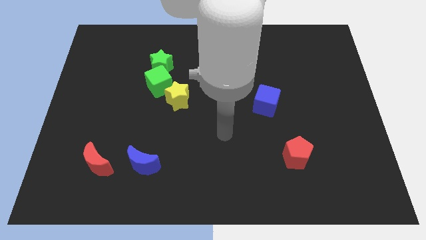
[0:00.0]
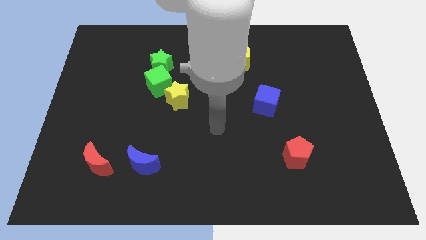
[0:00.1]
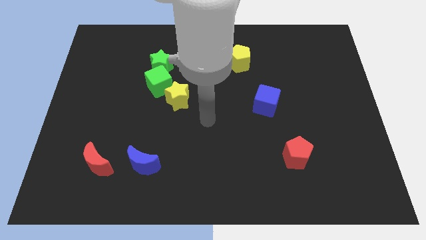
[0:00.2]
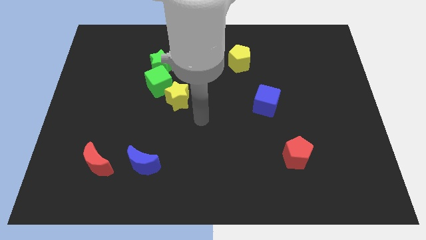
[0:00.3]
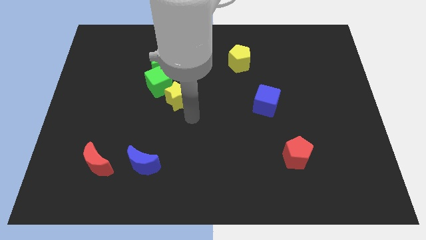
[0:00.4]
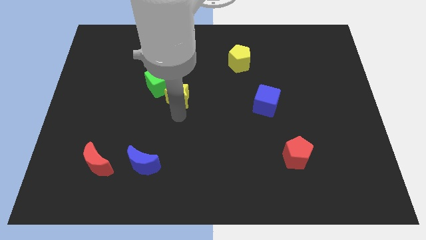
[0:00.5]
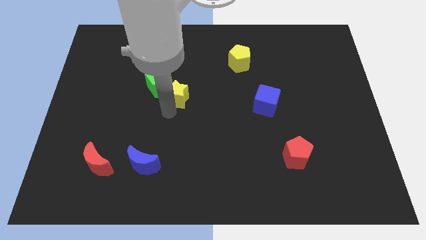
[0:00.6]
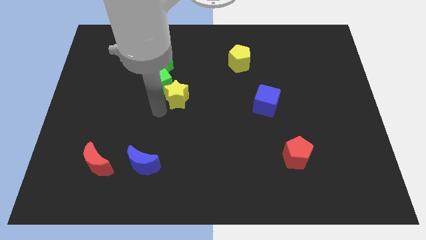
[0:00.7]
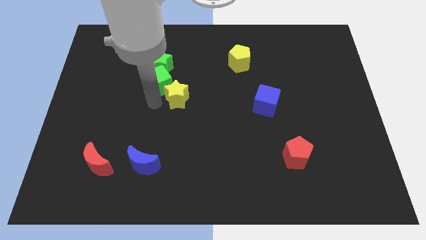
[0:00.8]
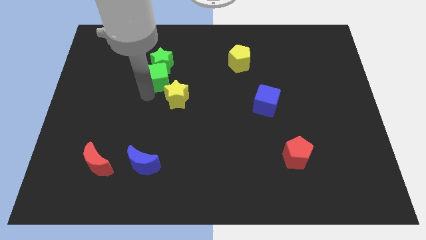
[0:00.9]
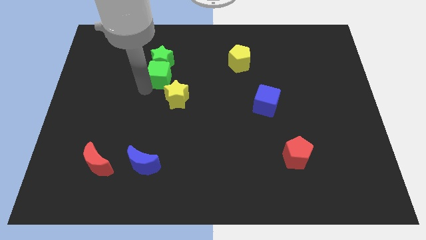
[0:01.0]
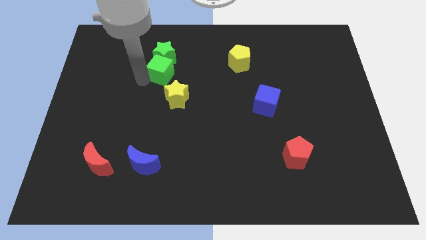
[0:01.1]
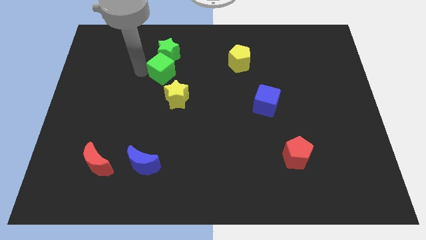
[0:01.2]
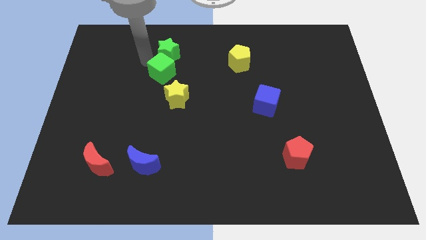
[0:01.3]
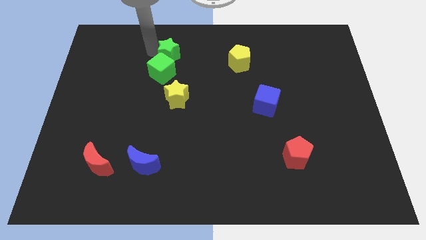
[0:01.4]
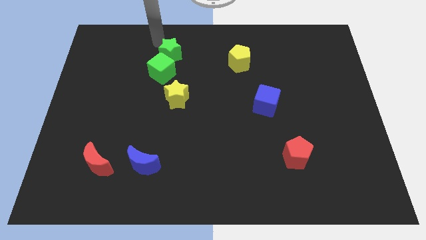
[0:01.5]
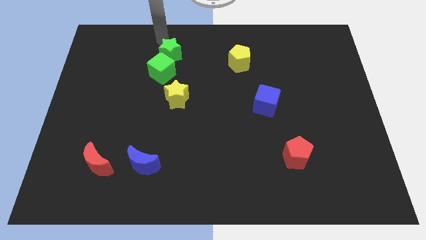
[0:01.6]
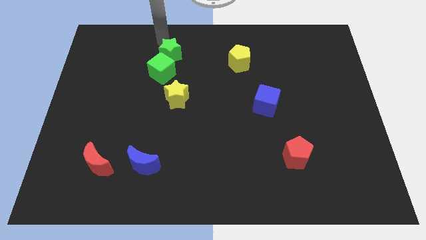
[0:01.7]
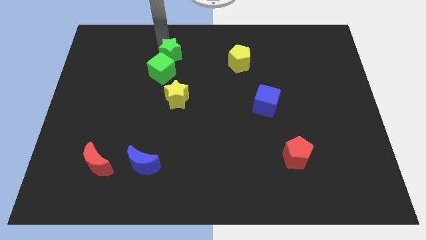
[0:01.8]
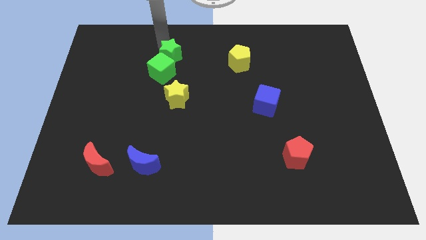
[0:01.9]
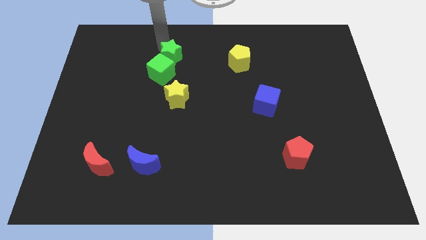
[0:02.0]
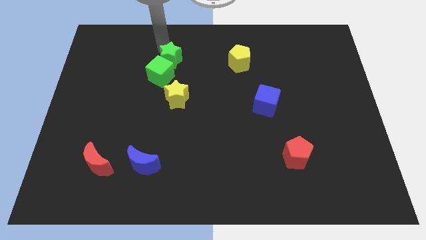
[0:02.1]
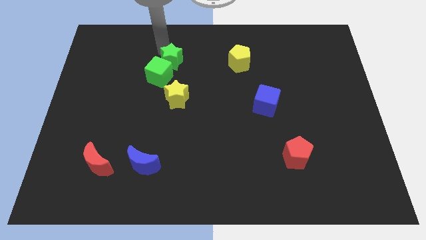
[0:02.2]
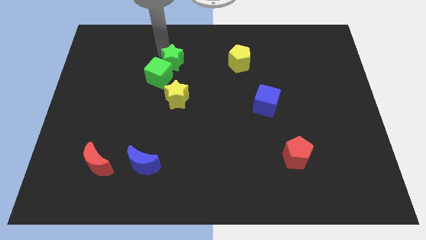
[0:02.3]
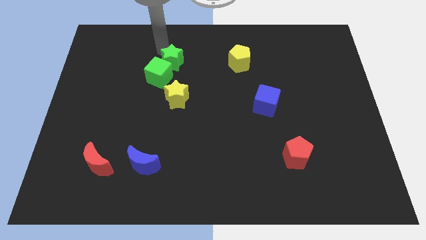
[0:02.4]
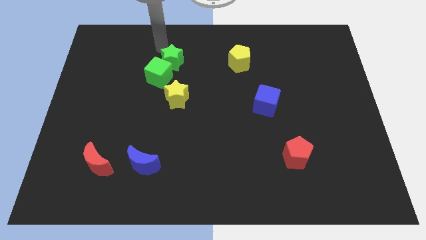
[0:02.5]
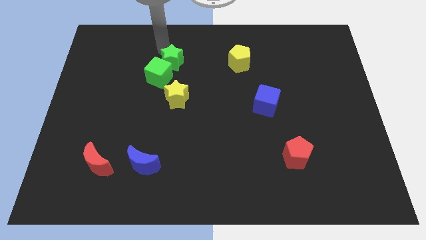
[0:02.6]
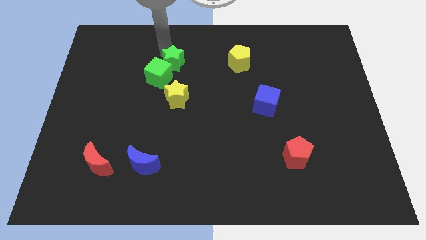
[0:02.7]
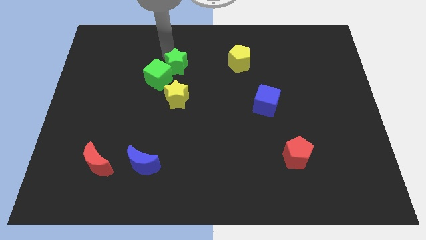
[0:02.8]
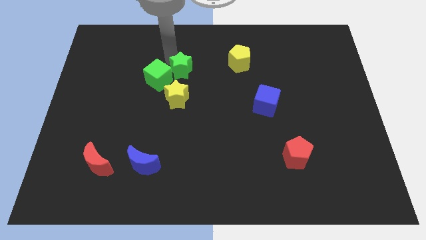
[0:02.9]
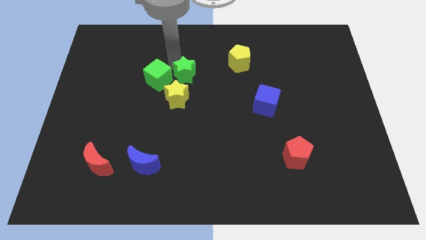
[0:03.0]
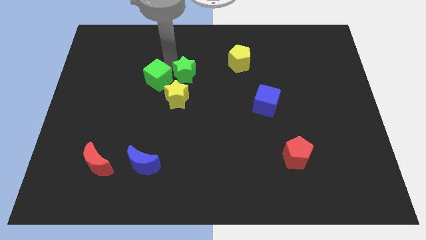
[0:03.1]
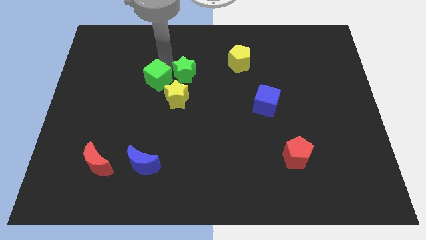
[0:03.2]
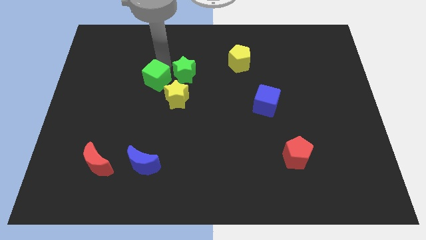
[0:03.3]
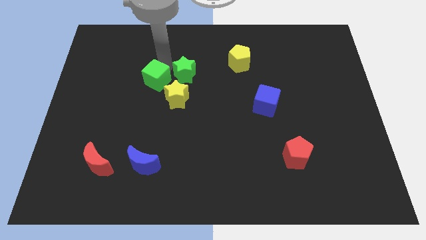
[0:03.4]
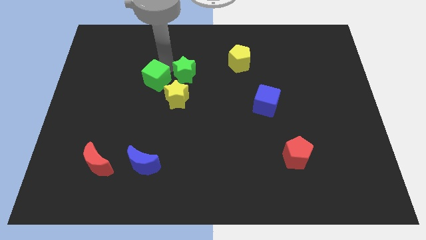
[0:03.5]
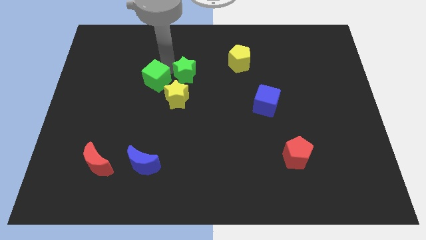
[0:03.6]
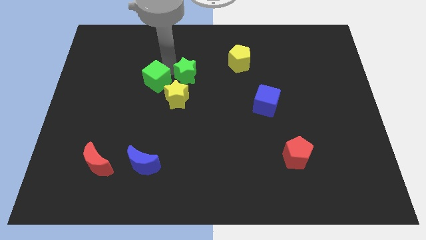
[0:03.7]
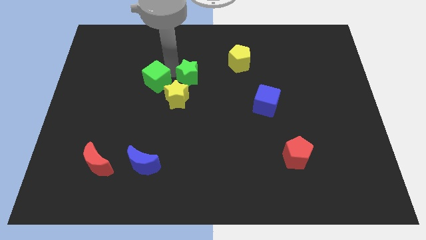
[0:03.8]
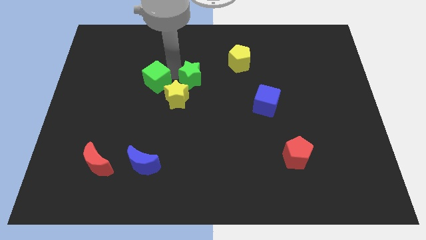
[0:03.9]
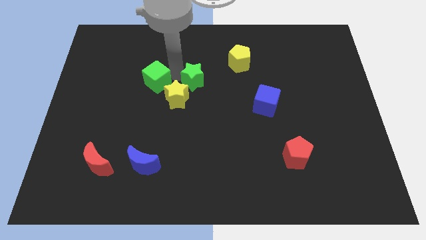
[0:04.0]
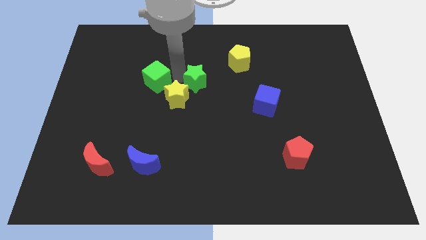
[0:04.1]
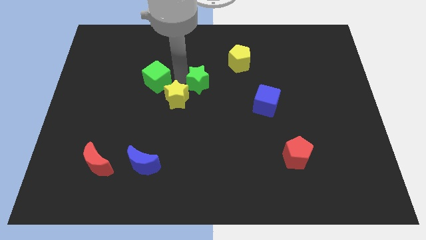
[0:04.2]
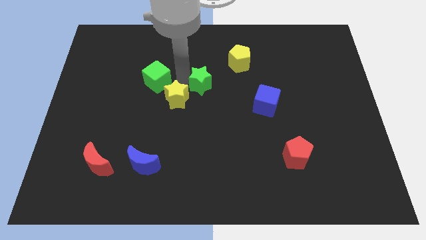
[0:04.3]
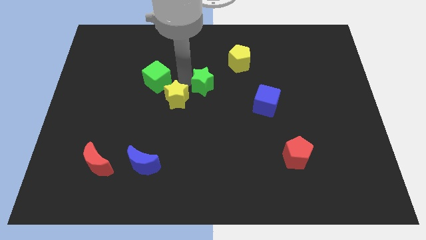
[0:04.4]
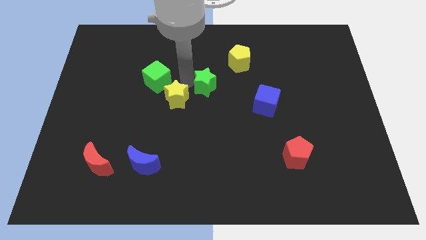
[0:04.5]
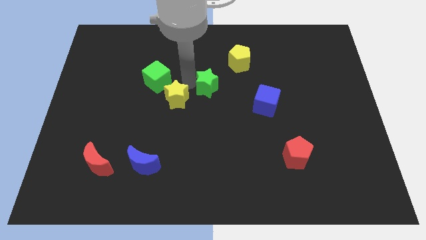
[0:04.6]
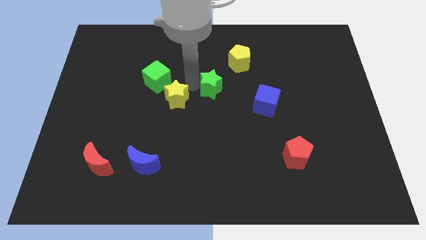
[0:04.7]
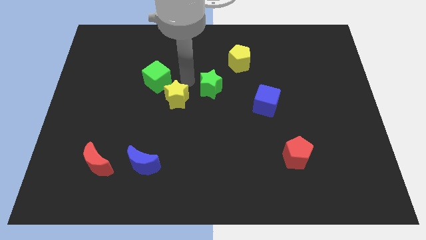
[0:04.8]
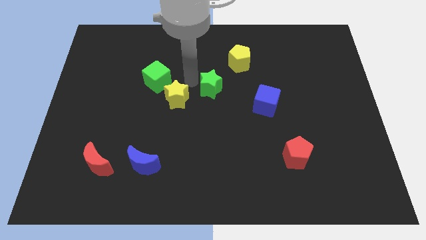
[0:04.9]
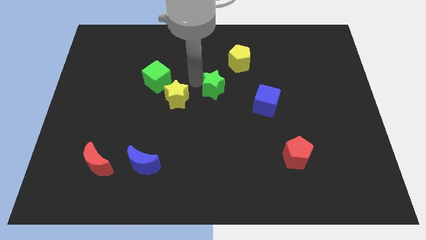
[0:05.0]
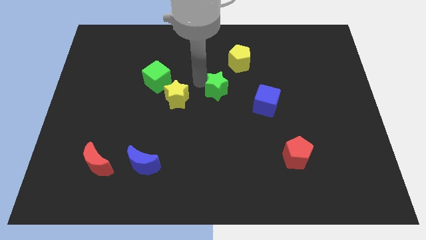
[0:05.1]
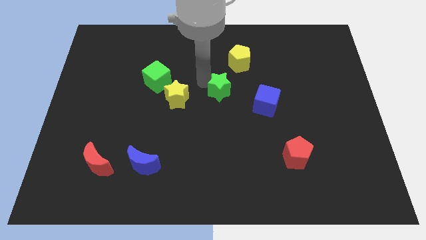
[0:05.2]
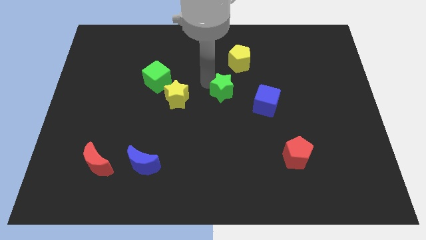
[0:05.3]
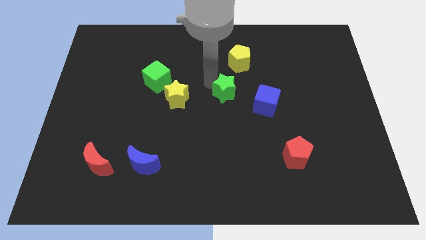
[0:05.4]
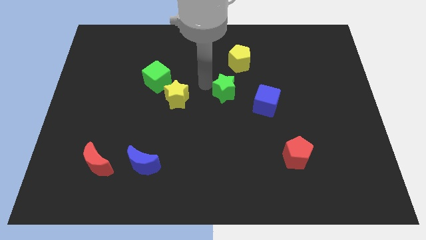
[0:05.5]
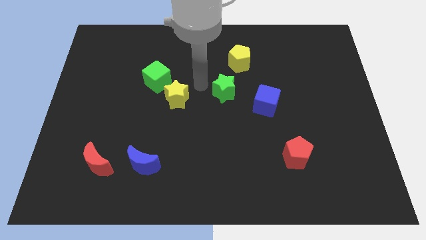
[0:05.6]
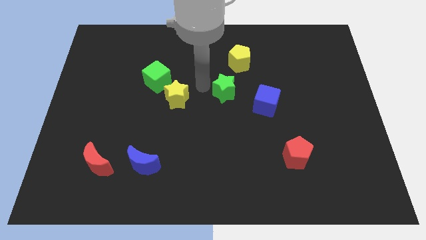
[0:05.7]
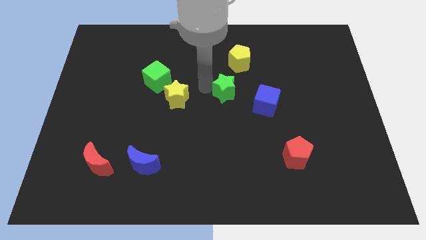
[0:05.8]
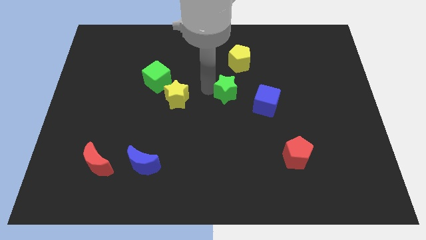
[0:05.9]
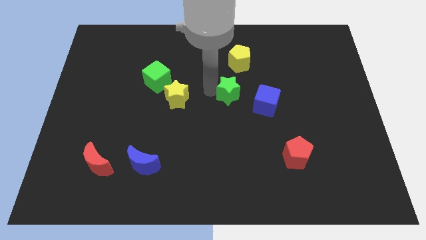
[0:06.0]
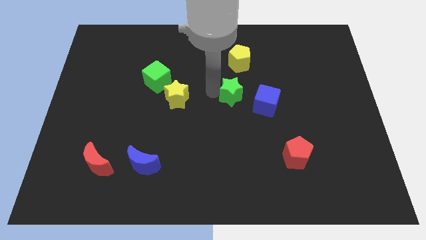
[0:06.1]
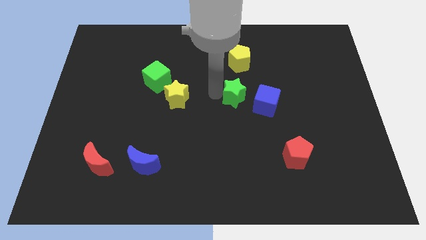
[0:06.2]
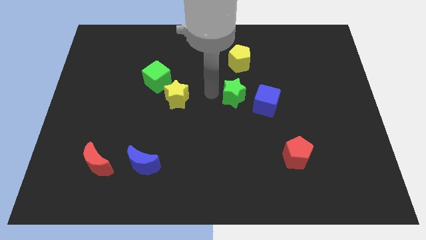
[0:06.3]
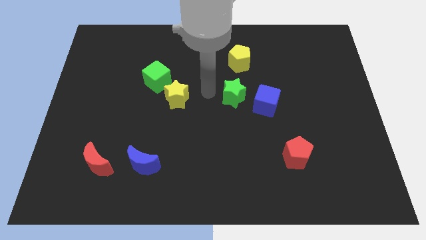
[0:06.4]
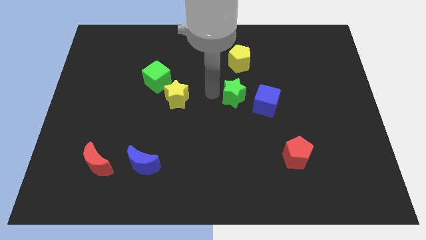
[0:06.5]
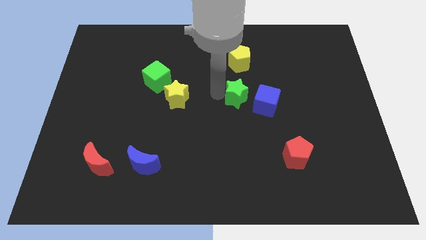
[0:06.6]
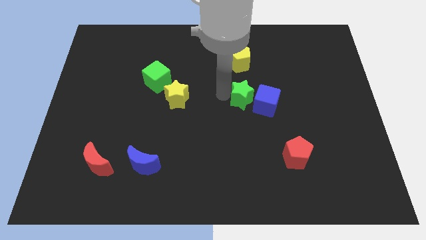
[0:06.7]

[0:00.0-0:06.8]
put the green star to the blue cube

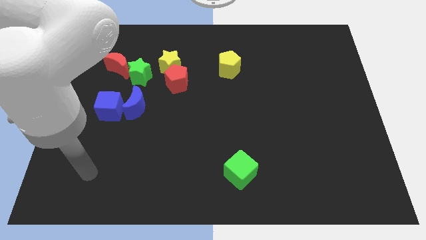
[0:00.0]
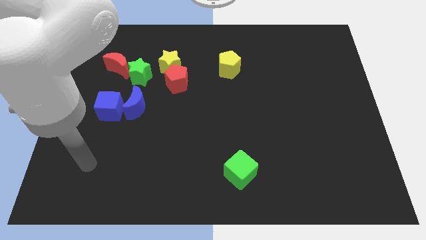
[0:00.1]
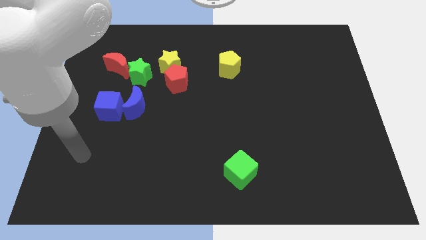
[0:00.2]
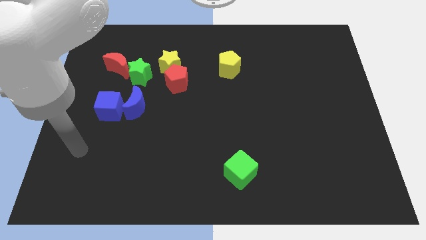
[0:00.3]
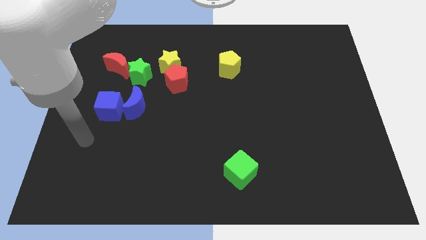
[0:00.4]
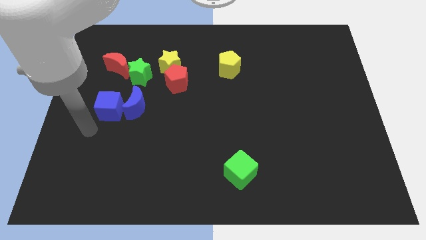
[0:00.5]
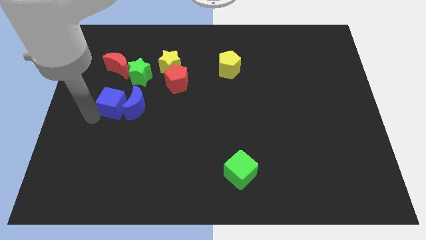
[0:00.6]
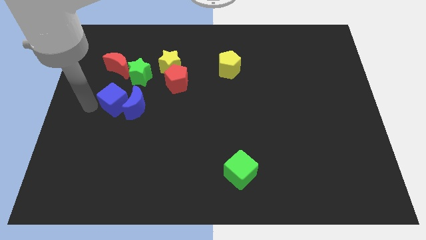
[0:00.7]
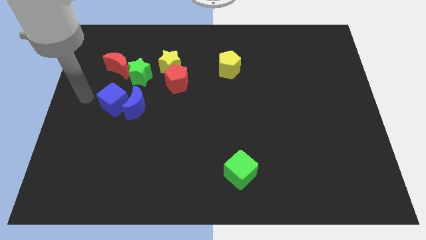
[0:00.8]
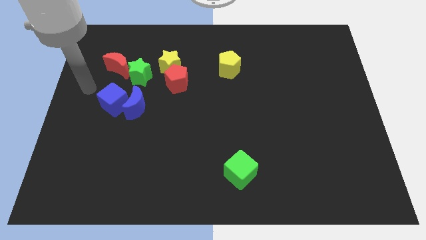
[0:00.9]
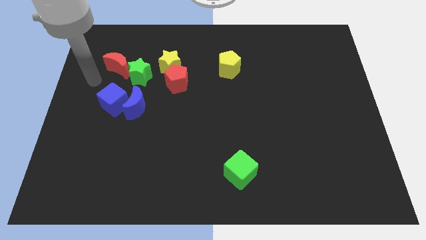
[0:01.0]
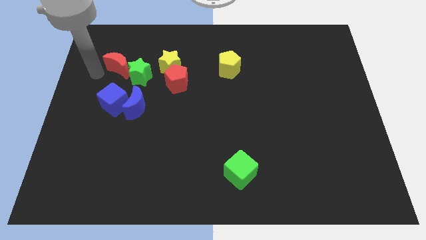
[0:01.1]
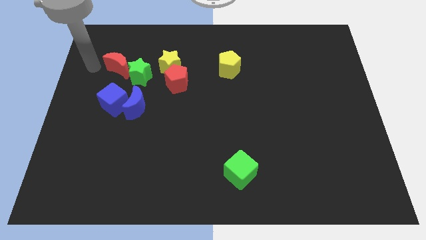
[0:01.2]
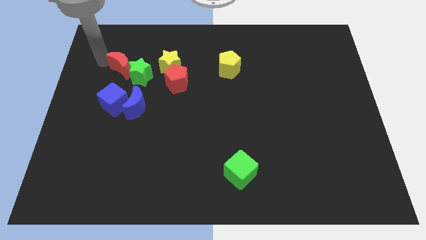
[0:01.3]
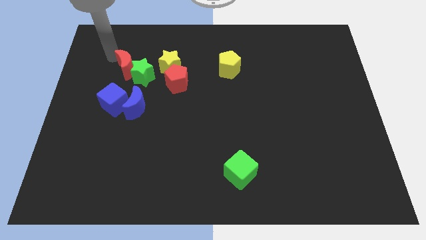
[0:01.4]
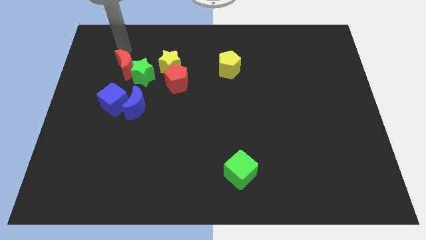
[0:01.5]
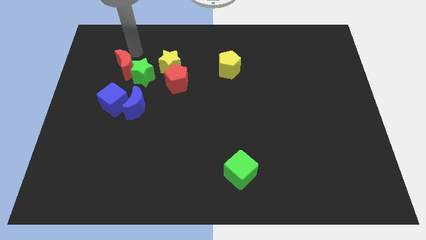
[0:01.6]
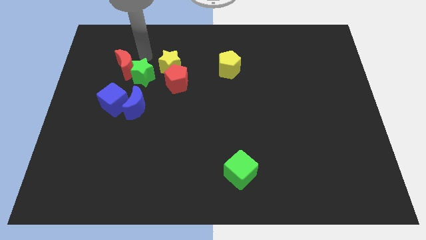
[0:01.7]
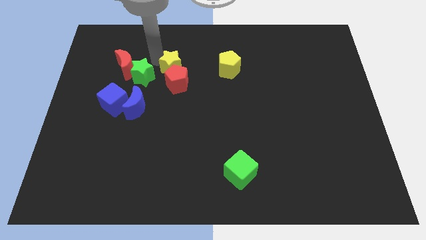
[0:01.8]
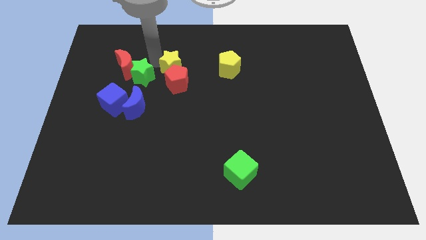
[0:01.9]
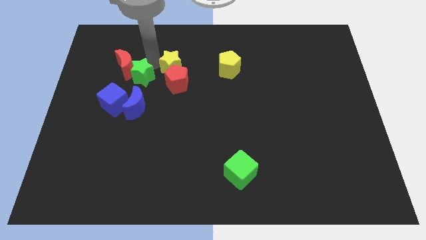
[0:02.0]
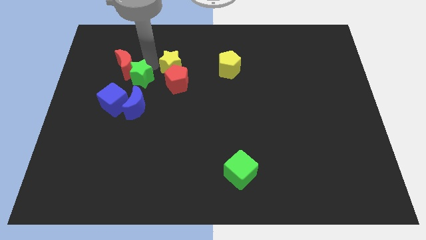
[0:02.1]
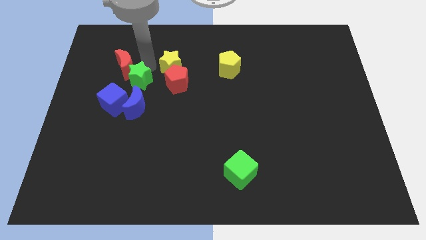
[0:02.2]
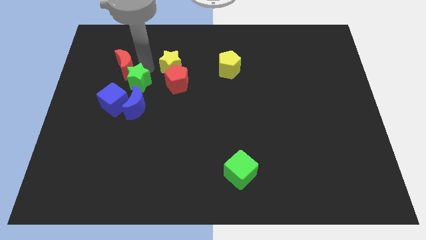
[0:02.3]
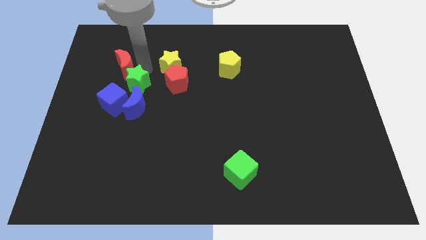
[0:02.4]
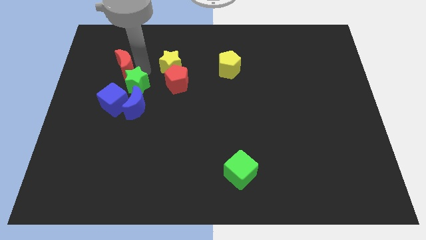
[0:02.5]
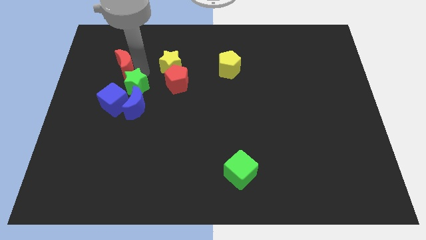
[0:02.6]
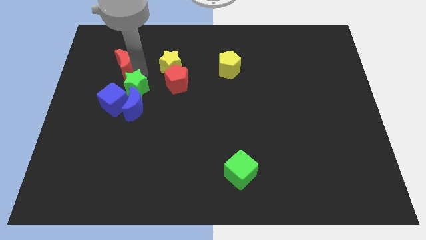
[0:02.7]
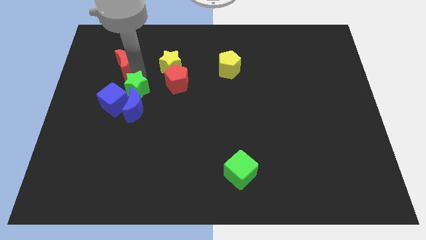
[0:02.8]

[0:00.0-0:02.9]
move the green star to the blue cube
